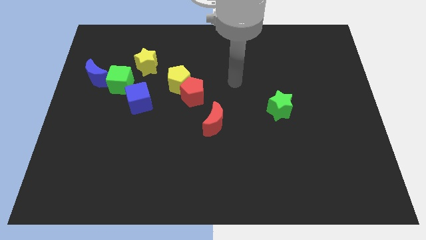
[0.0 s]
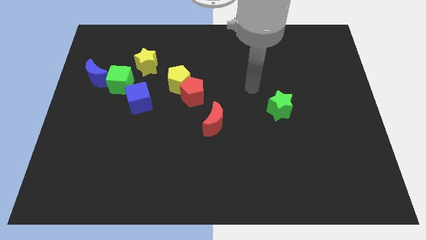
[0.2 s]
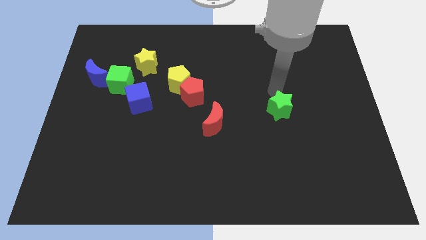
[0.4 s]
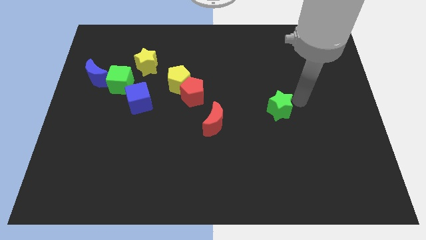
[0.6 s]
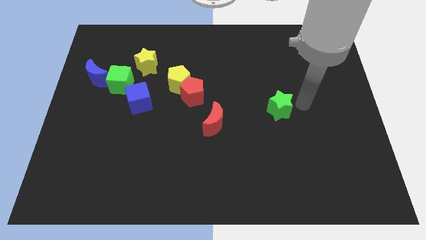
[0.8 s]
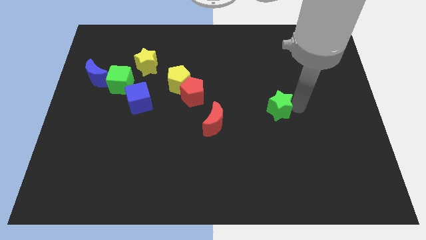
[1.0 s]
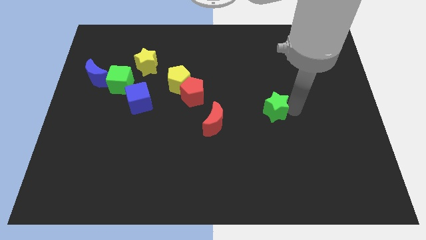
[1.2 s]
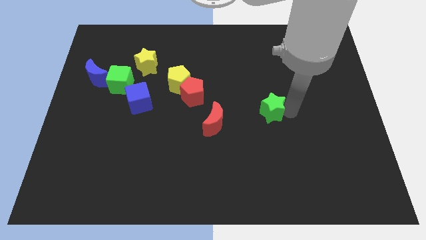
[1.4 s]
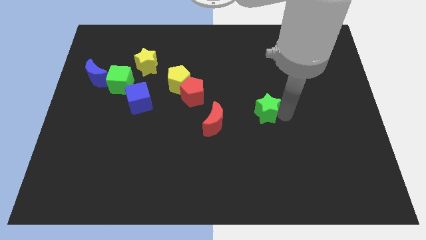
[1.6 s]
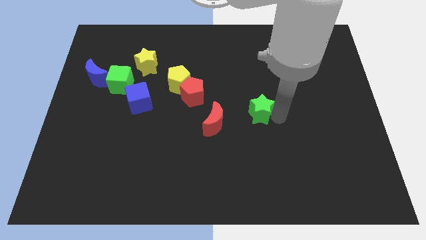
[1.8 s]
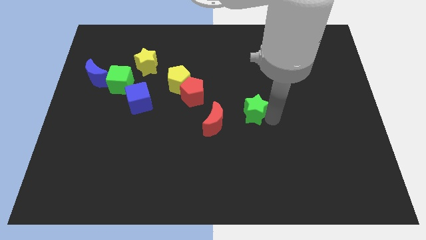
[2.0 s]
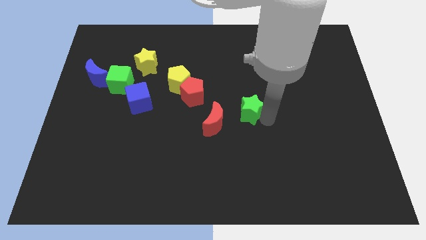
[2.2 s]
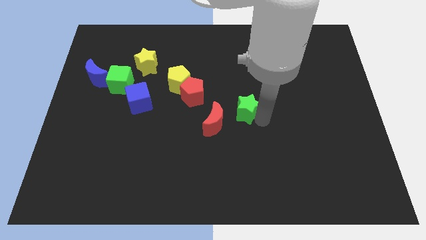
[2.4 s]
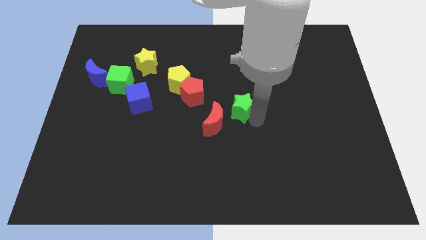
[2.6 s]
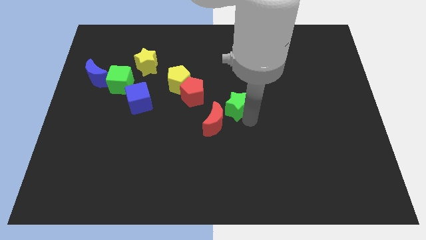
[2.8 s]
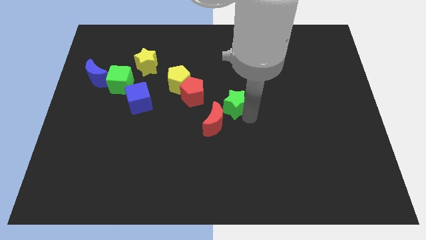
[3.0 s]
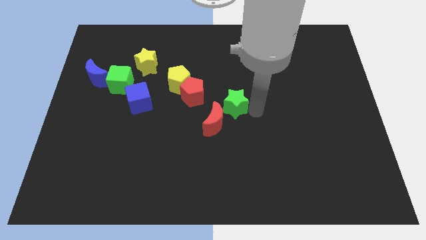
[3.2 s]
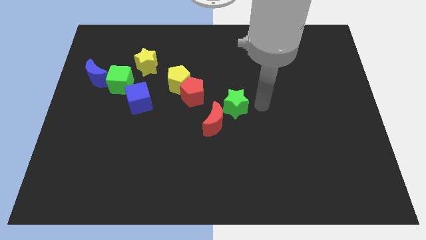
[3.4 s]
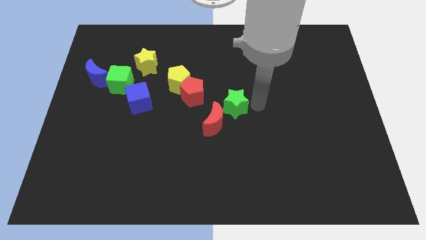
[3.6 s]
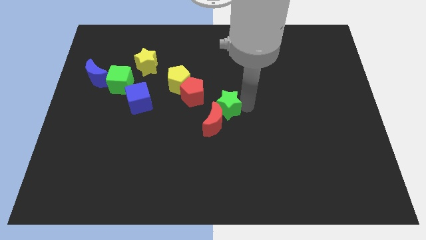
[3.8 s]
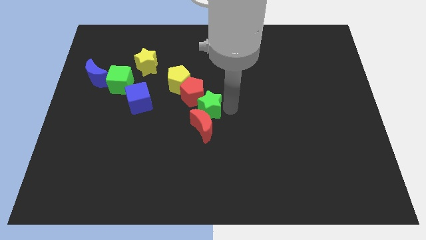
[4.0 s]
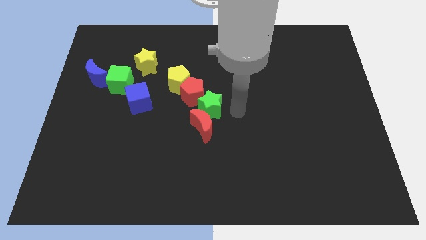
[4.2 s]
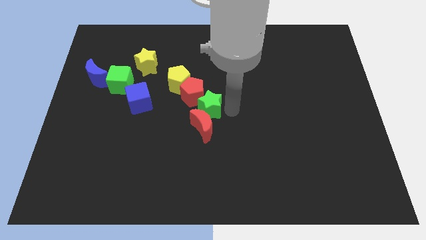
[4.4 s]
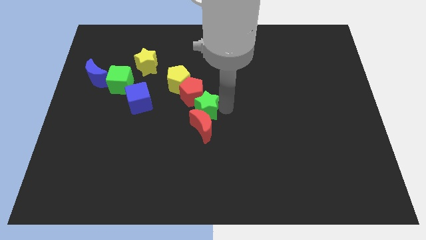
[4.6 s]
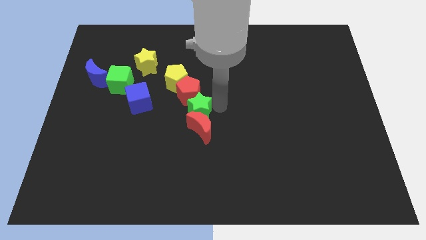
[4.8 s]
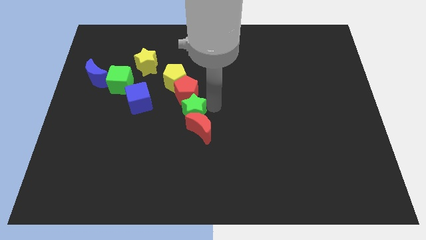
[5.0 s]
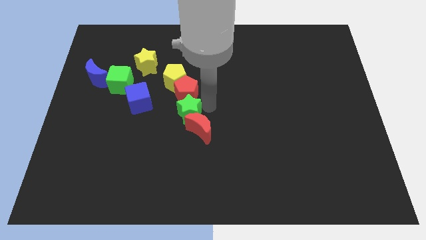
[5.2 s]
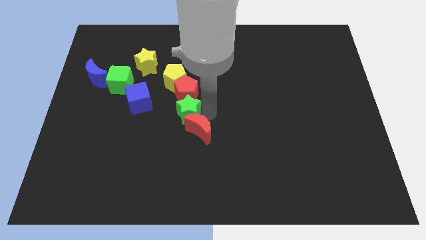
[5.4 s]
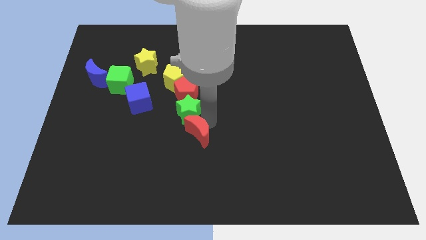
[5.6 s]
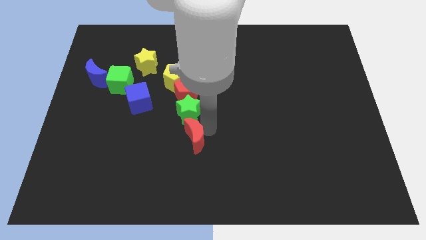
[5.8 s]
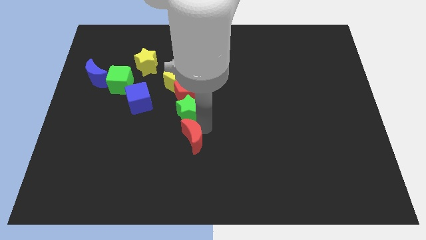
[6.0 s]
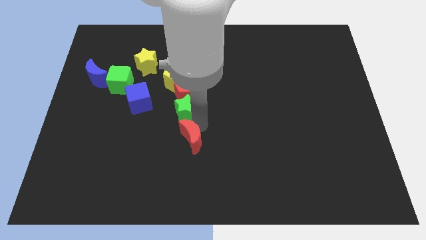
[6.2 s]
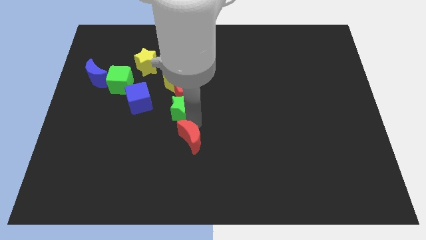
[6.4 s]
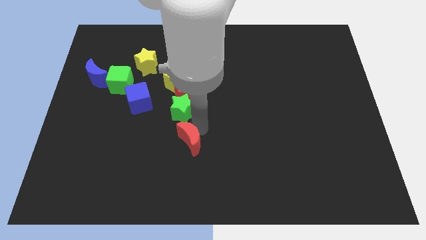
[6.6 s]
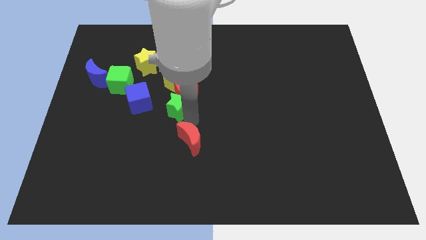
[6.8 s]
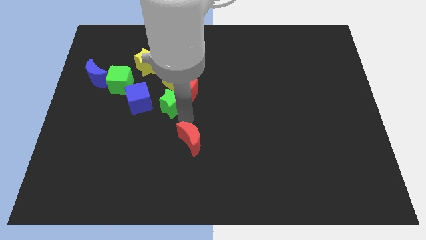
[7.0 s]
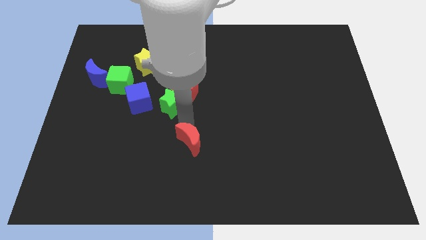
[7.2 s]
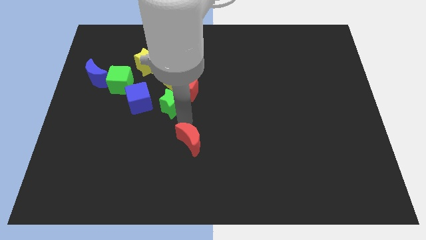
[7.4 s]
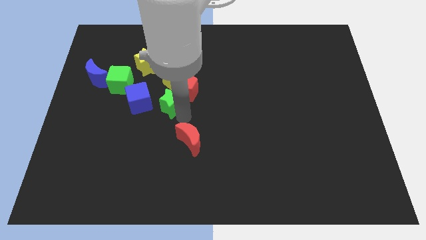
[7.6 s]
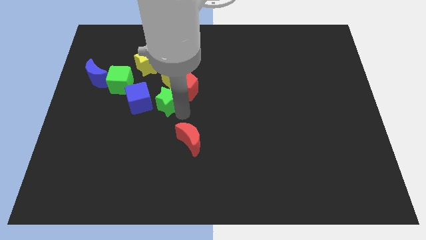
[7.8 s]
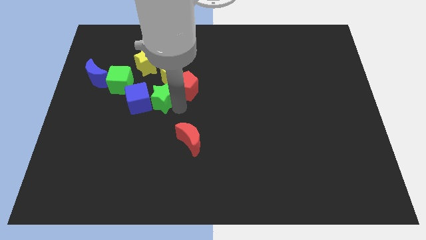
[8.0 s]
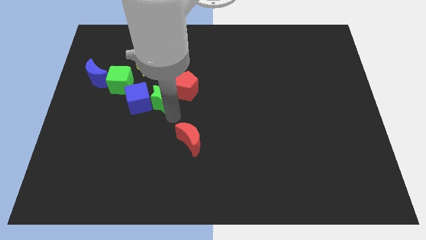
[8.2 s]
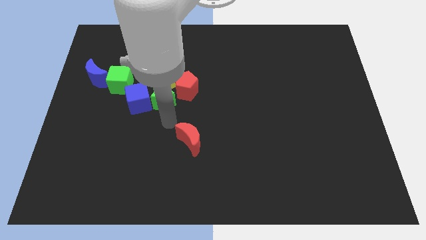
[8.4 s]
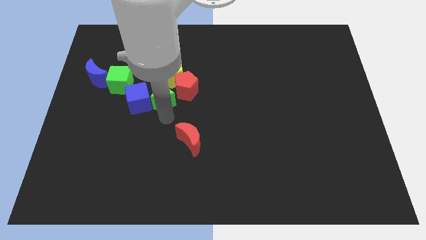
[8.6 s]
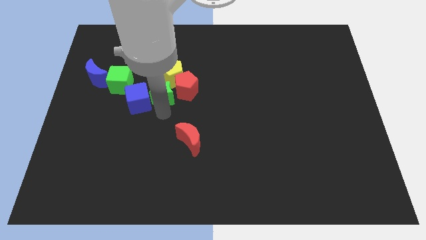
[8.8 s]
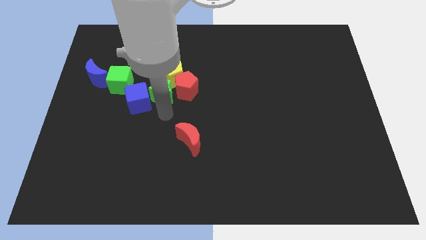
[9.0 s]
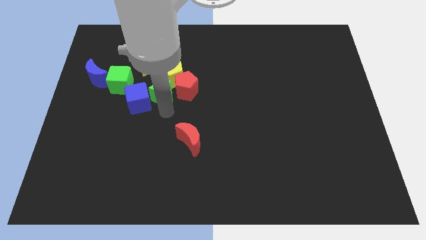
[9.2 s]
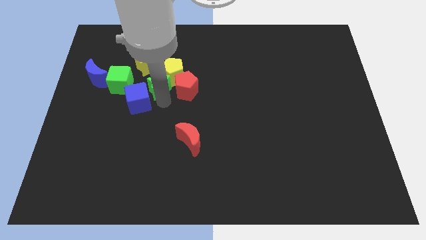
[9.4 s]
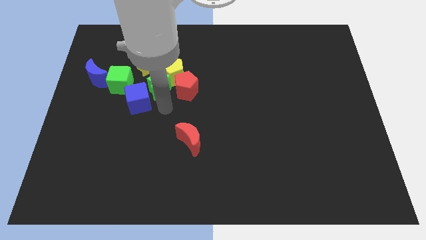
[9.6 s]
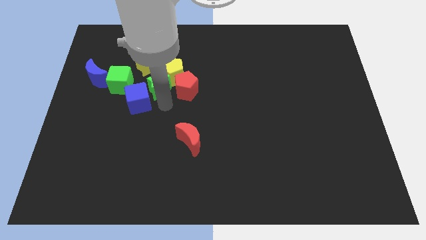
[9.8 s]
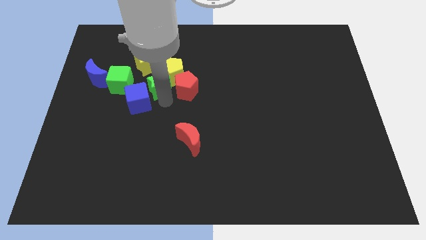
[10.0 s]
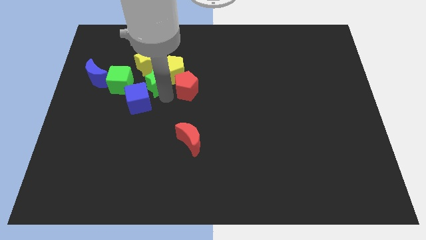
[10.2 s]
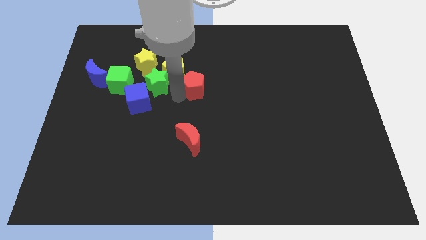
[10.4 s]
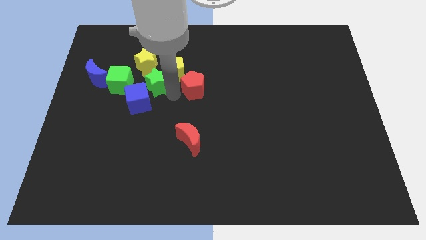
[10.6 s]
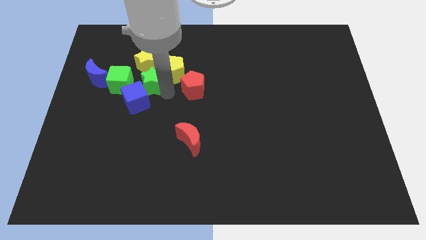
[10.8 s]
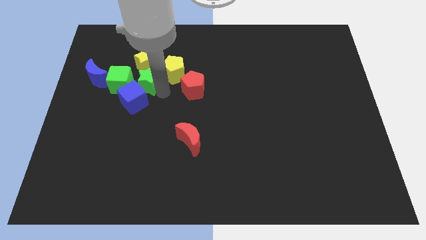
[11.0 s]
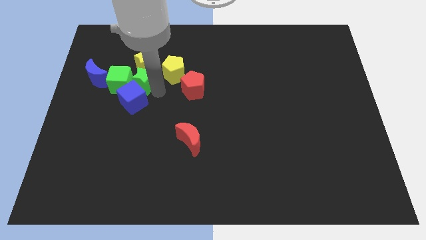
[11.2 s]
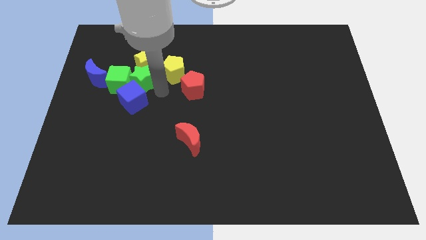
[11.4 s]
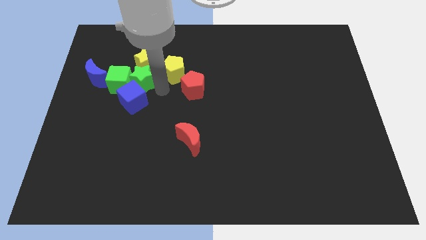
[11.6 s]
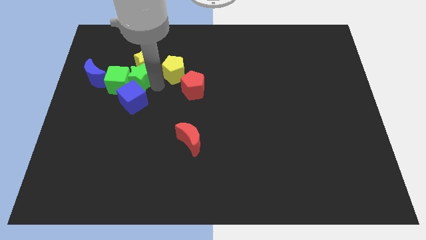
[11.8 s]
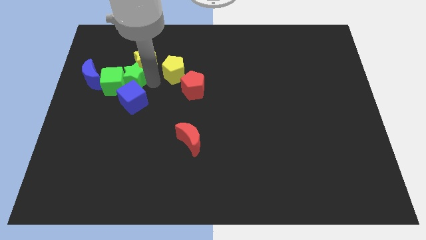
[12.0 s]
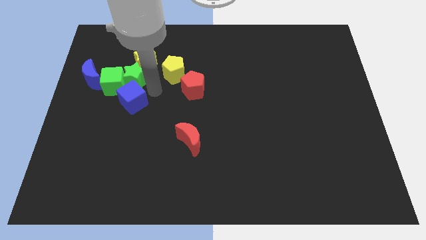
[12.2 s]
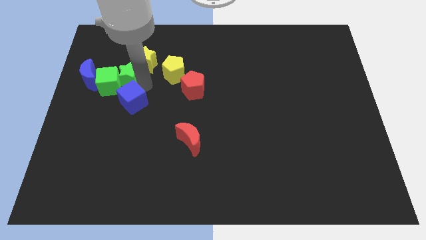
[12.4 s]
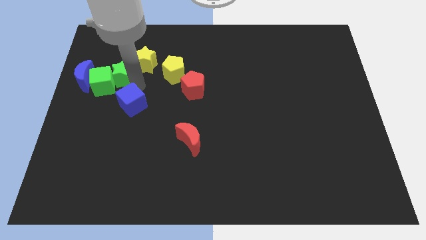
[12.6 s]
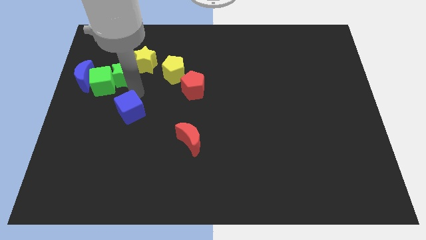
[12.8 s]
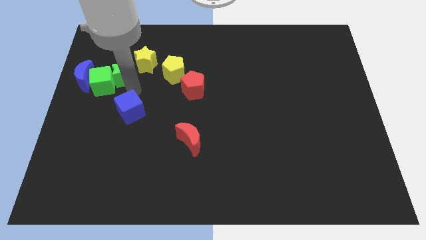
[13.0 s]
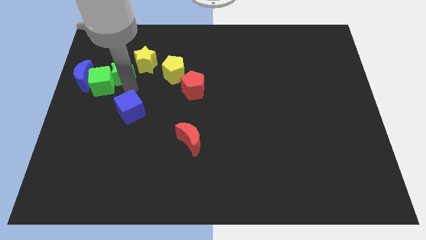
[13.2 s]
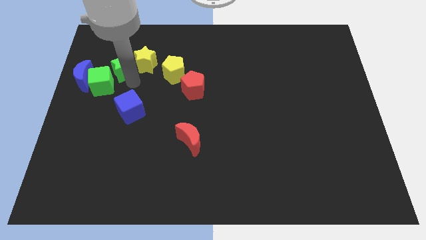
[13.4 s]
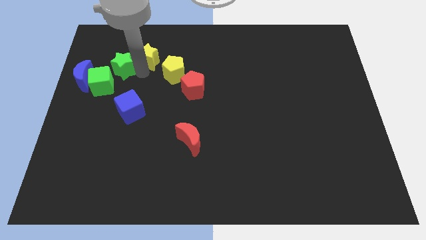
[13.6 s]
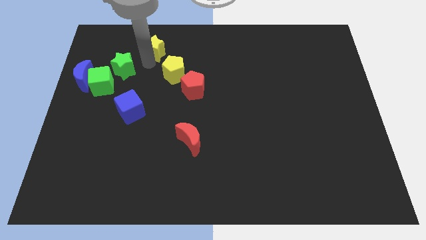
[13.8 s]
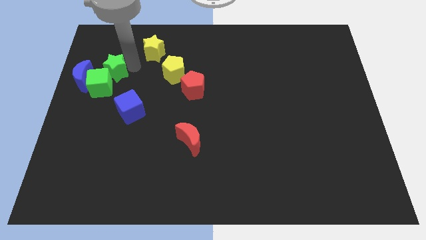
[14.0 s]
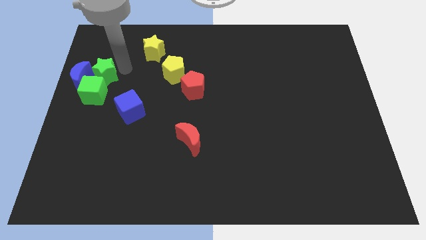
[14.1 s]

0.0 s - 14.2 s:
slide the green star close to the blue moon
